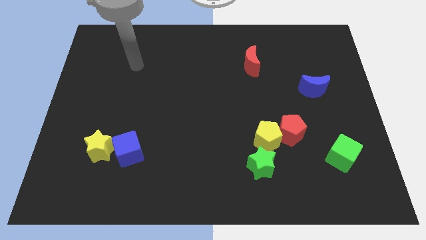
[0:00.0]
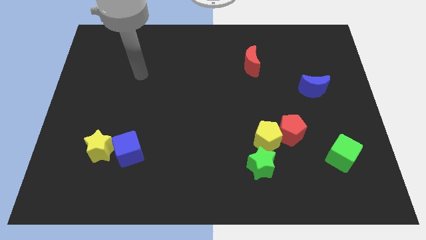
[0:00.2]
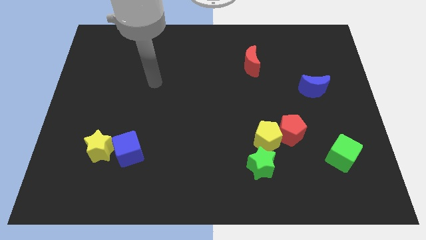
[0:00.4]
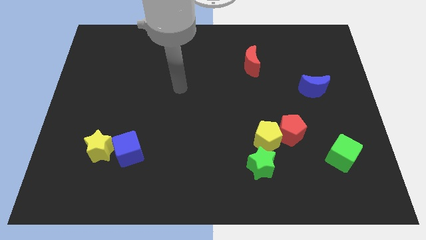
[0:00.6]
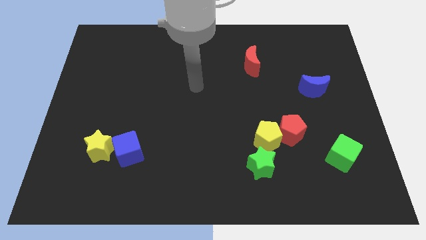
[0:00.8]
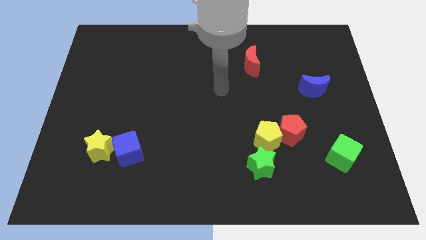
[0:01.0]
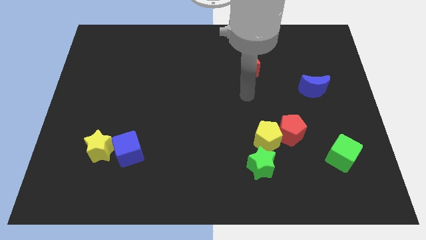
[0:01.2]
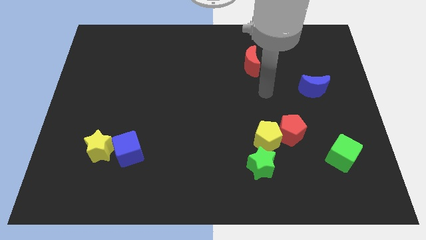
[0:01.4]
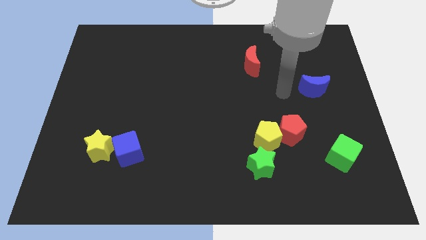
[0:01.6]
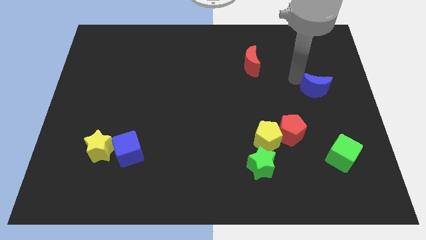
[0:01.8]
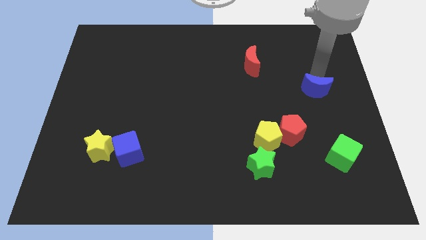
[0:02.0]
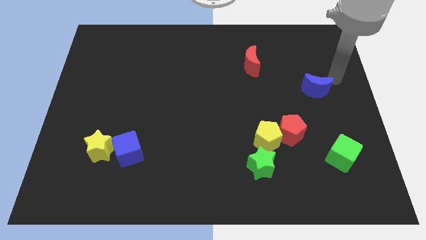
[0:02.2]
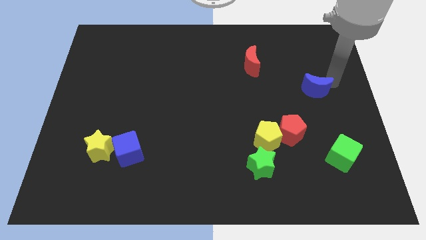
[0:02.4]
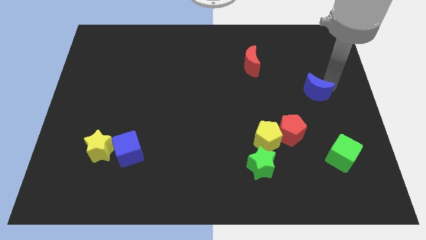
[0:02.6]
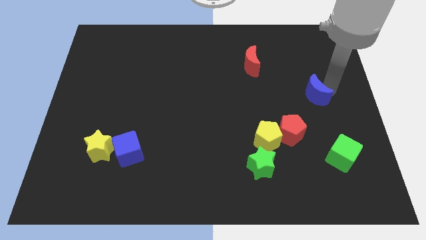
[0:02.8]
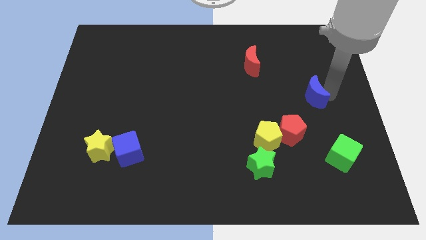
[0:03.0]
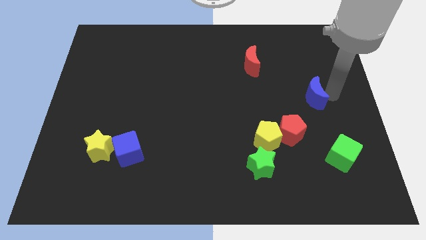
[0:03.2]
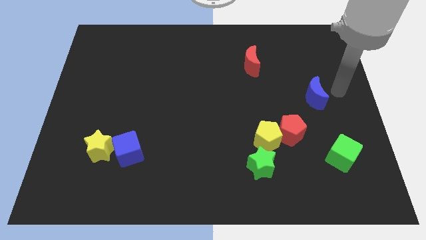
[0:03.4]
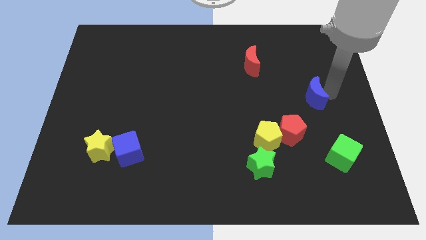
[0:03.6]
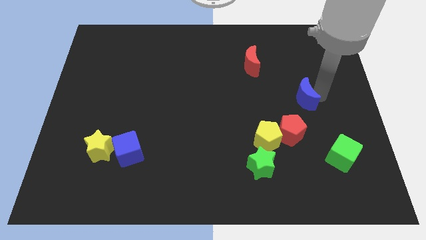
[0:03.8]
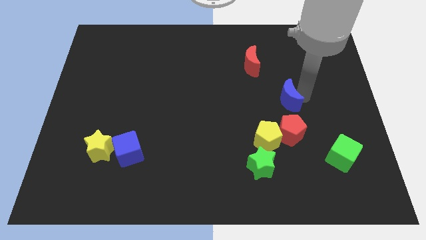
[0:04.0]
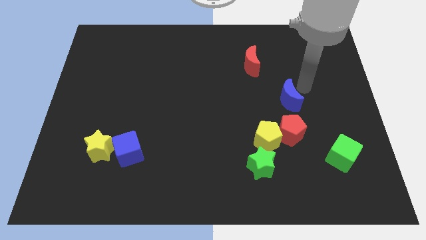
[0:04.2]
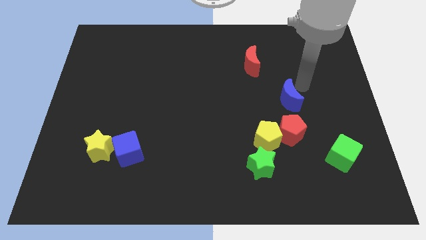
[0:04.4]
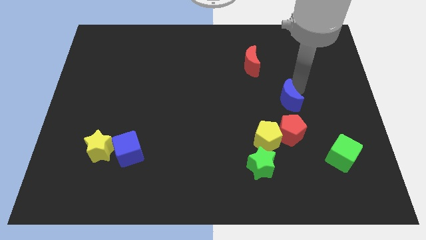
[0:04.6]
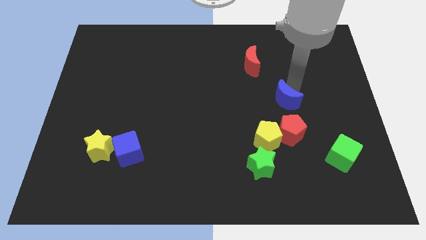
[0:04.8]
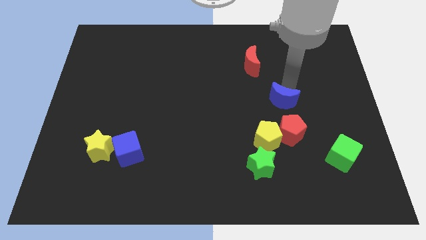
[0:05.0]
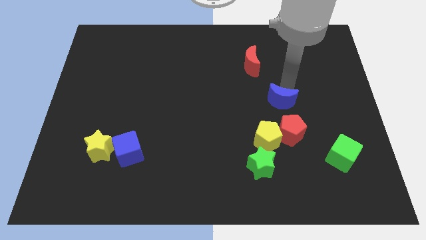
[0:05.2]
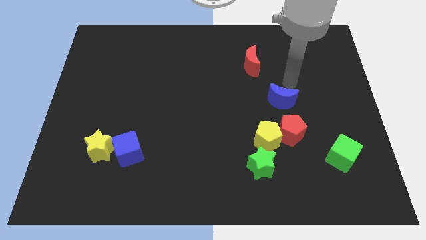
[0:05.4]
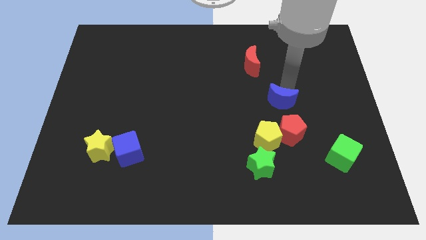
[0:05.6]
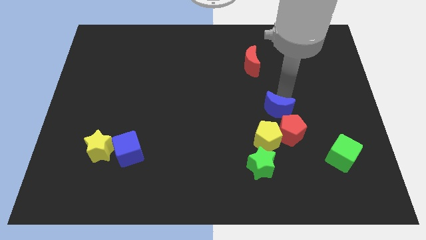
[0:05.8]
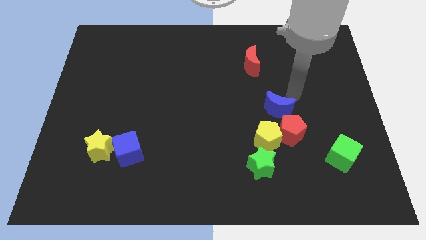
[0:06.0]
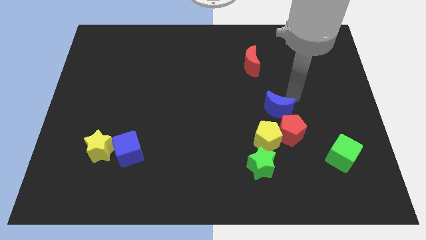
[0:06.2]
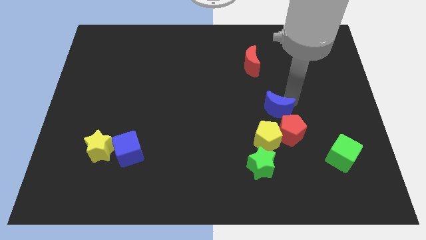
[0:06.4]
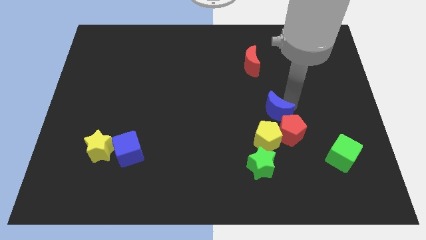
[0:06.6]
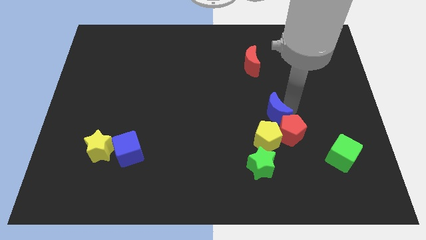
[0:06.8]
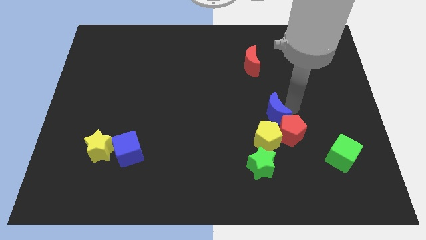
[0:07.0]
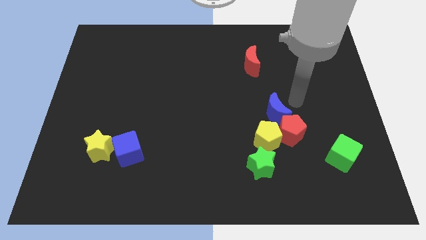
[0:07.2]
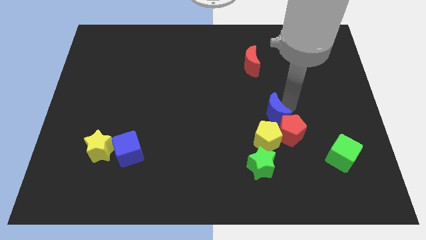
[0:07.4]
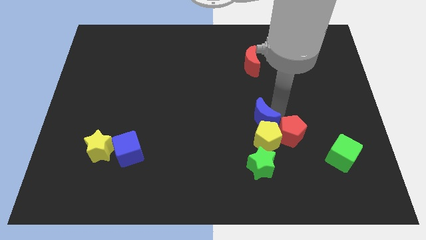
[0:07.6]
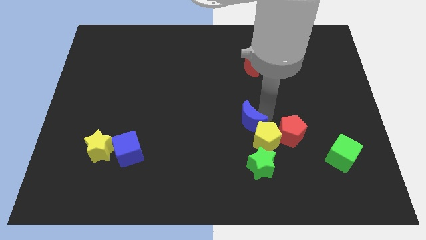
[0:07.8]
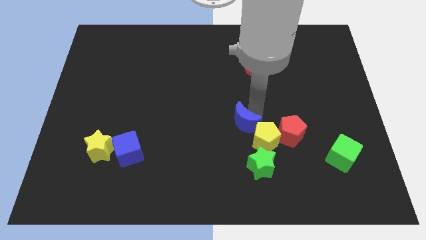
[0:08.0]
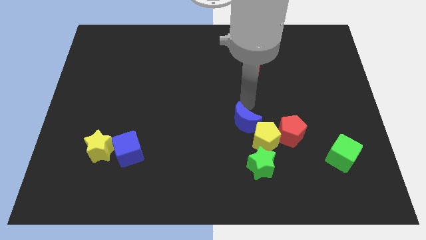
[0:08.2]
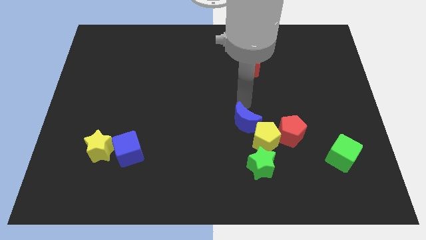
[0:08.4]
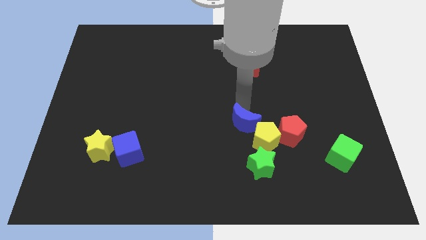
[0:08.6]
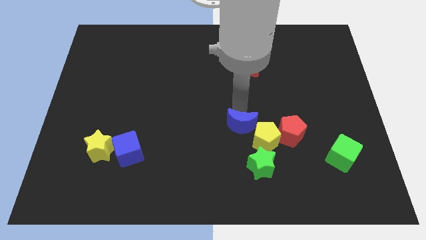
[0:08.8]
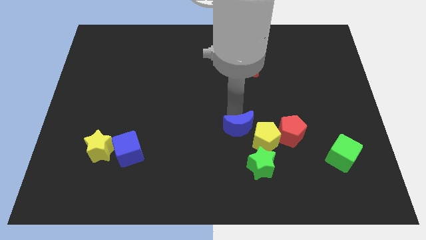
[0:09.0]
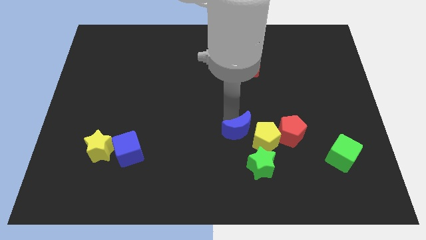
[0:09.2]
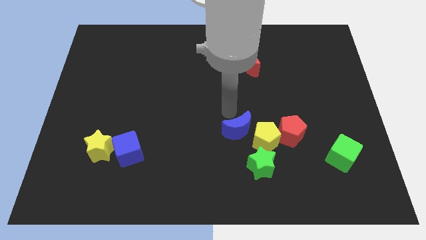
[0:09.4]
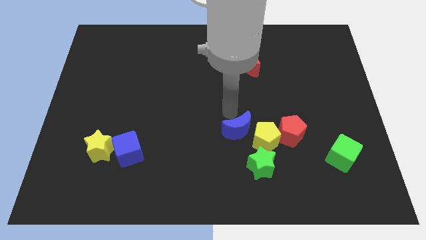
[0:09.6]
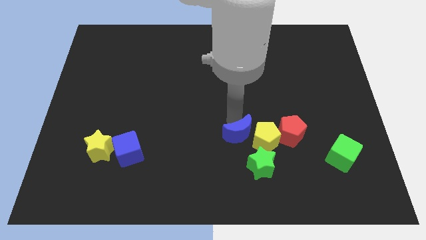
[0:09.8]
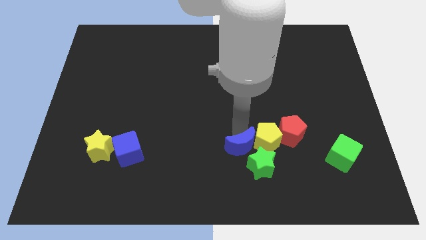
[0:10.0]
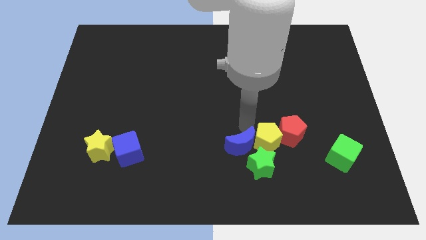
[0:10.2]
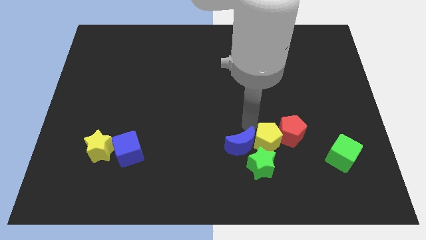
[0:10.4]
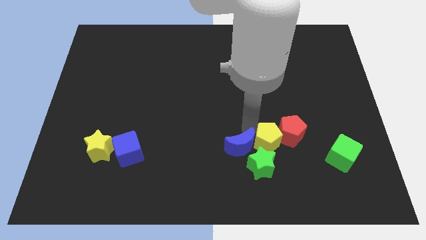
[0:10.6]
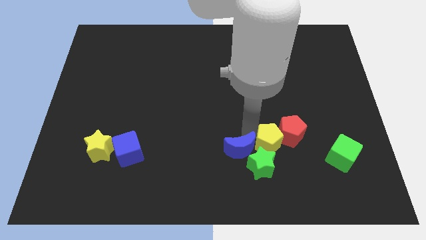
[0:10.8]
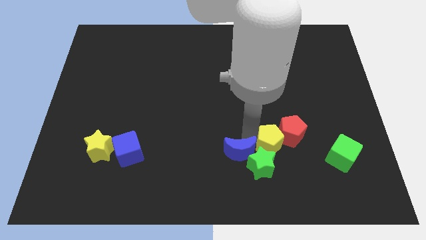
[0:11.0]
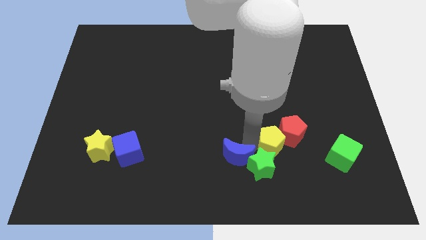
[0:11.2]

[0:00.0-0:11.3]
slide the blue moon to the bottom side

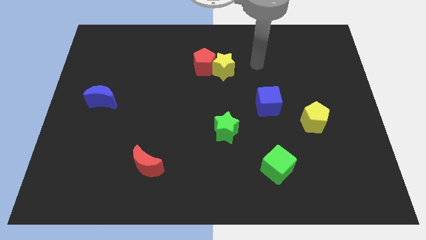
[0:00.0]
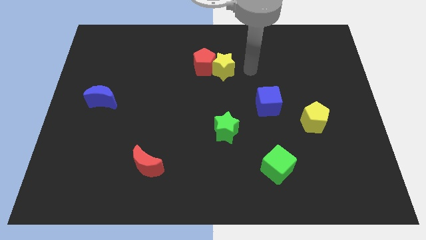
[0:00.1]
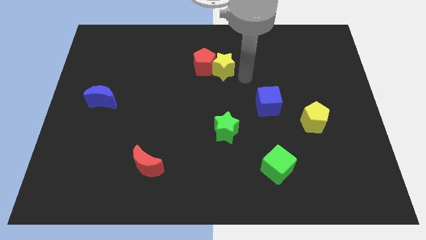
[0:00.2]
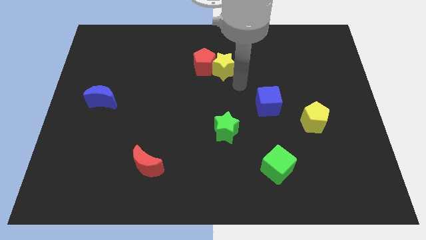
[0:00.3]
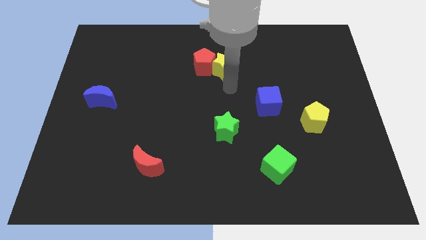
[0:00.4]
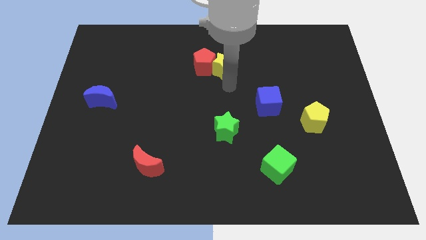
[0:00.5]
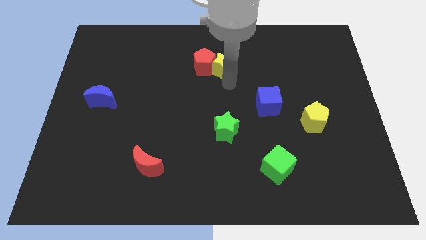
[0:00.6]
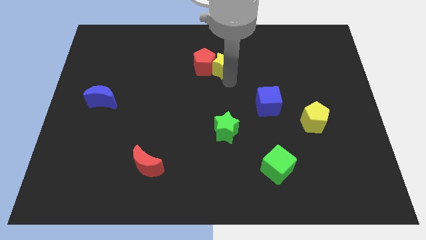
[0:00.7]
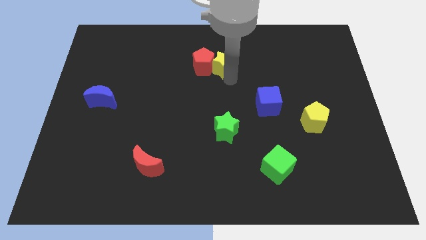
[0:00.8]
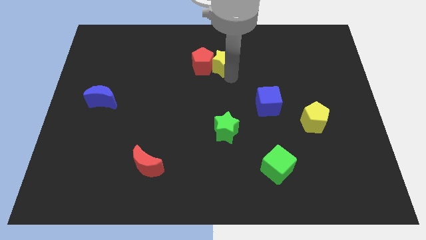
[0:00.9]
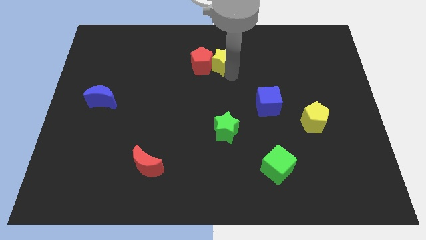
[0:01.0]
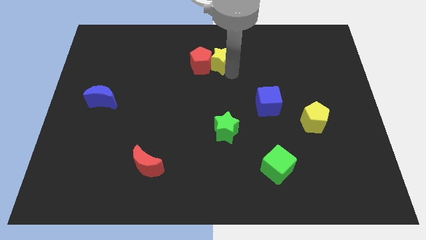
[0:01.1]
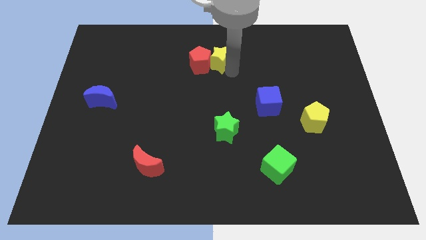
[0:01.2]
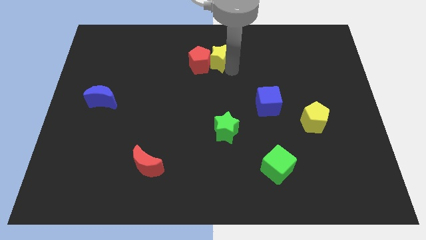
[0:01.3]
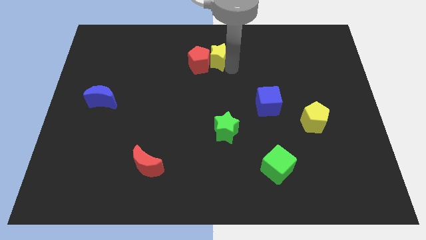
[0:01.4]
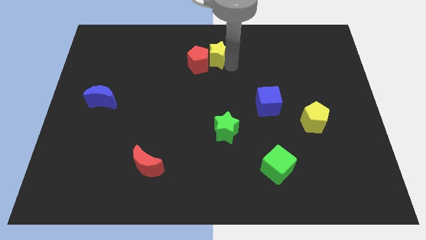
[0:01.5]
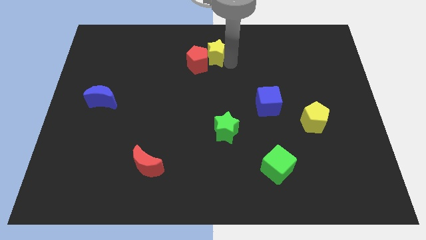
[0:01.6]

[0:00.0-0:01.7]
push the yellow star to the top
